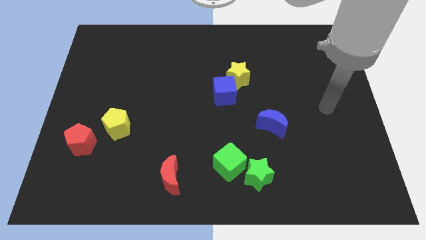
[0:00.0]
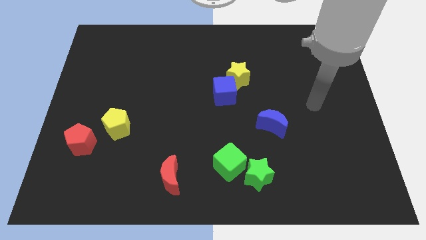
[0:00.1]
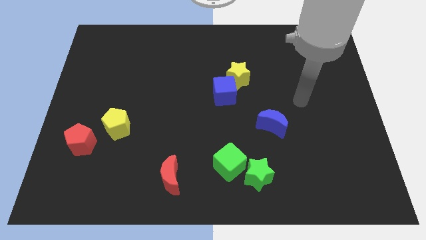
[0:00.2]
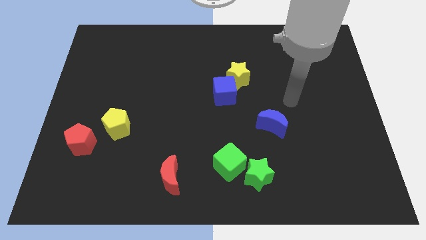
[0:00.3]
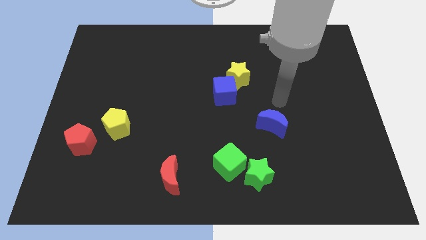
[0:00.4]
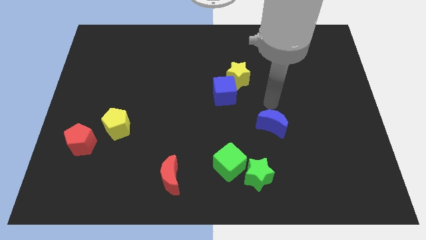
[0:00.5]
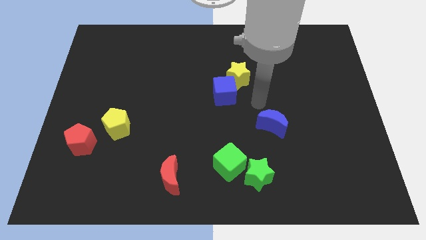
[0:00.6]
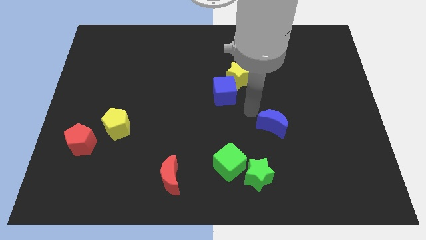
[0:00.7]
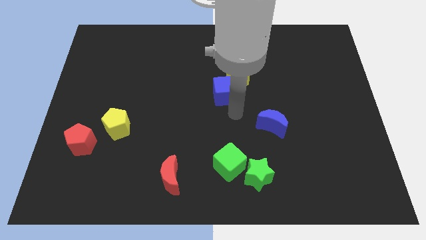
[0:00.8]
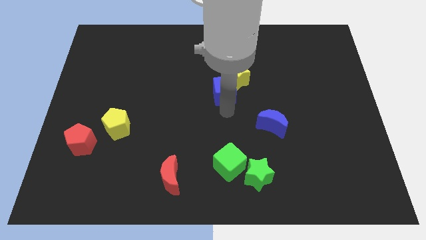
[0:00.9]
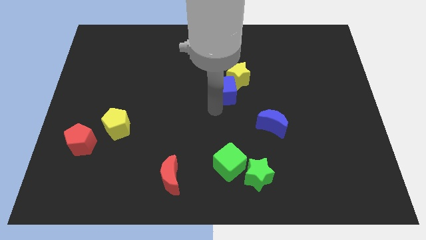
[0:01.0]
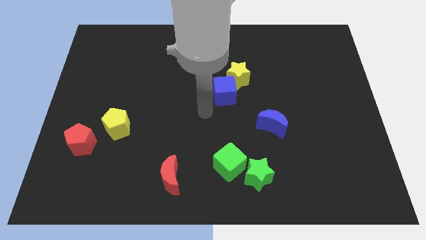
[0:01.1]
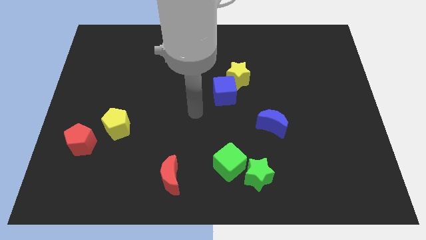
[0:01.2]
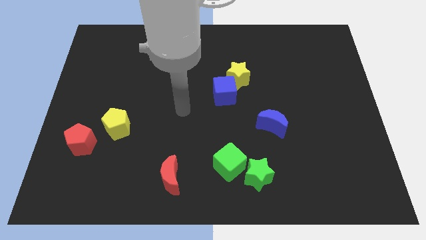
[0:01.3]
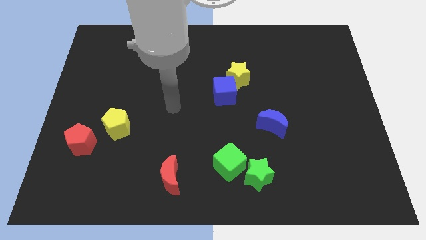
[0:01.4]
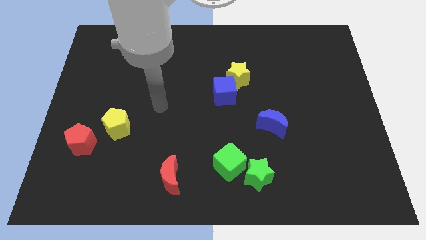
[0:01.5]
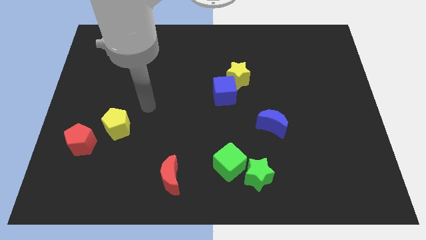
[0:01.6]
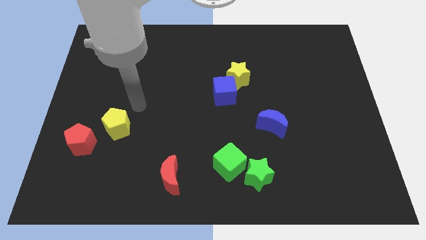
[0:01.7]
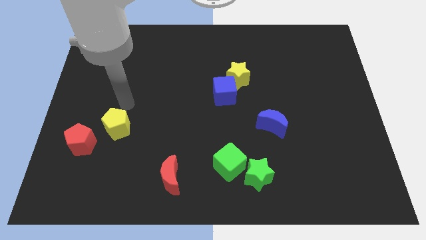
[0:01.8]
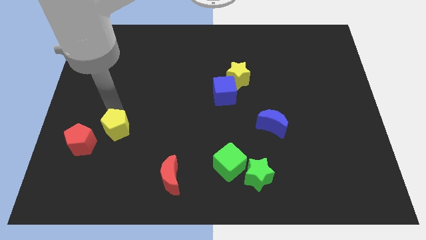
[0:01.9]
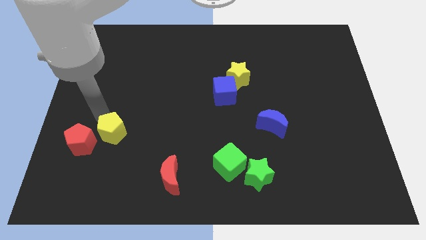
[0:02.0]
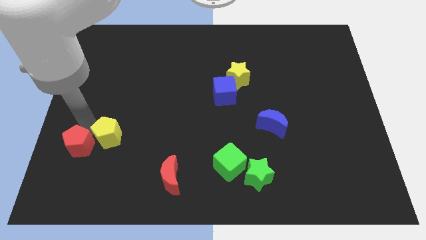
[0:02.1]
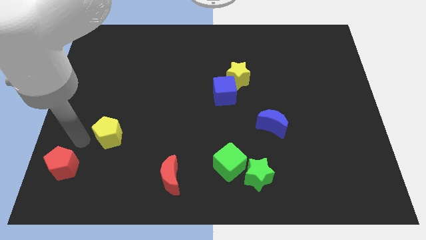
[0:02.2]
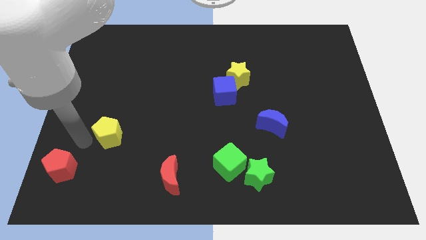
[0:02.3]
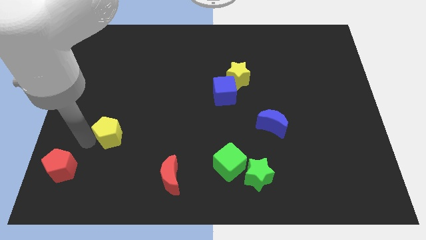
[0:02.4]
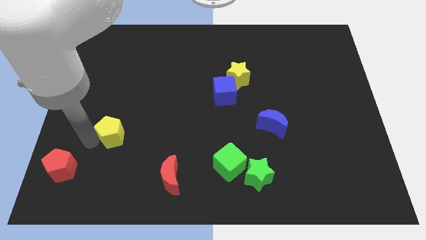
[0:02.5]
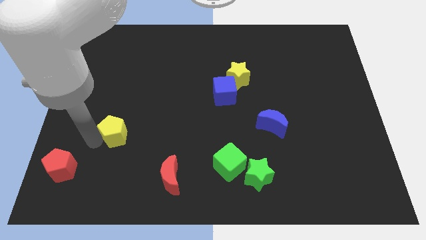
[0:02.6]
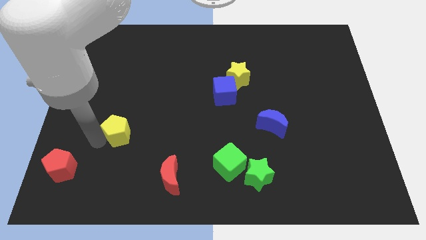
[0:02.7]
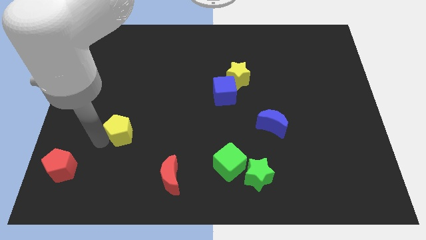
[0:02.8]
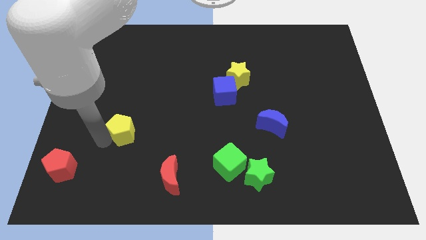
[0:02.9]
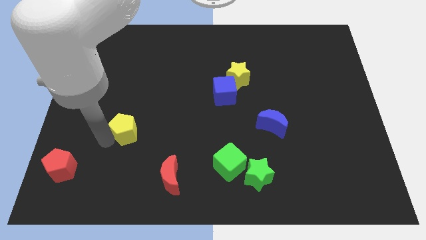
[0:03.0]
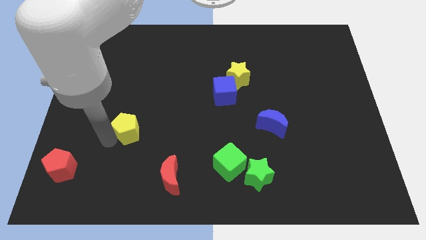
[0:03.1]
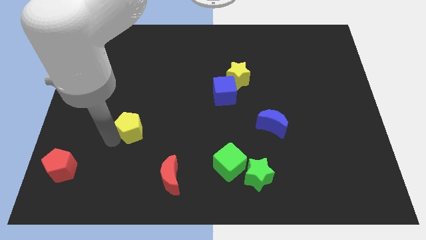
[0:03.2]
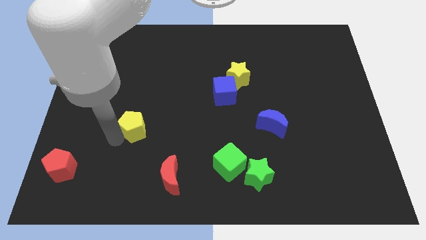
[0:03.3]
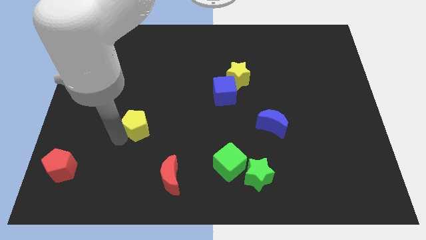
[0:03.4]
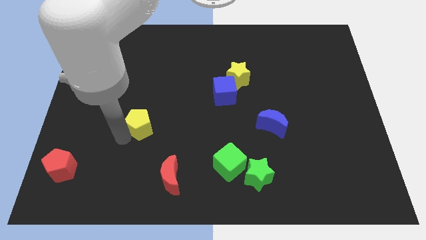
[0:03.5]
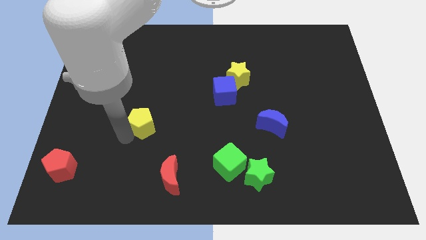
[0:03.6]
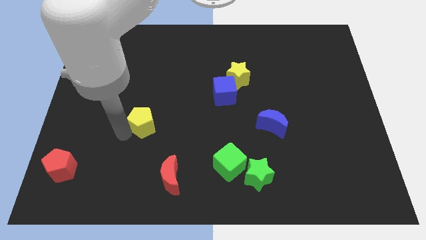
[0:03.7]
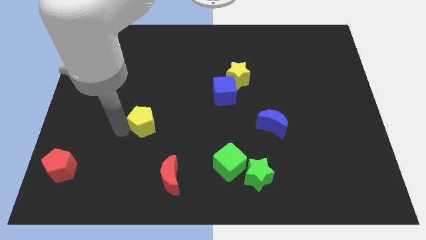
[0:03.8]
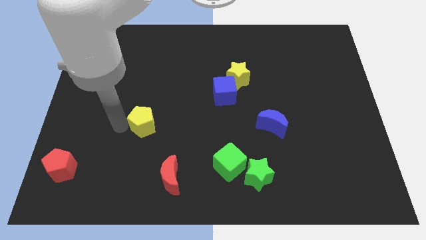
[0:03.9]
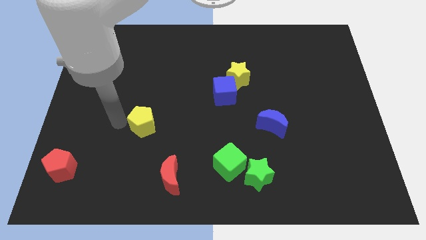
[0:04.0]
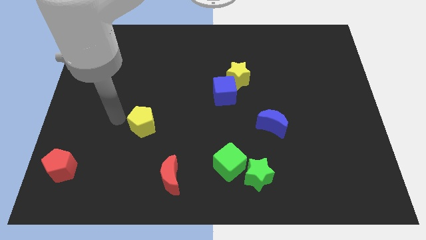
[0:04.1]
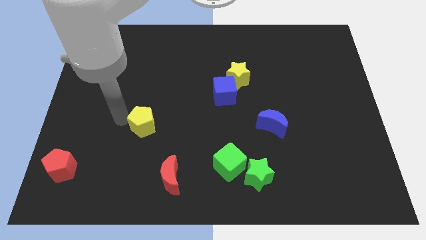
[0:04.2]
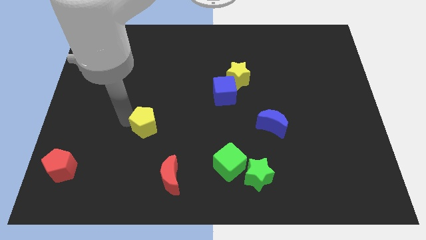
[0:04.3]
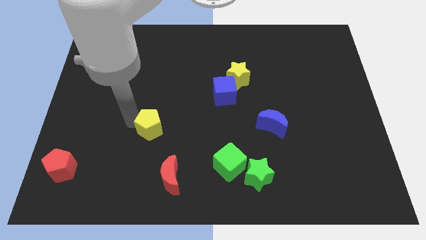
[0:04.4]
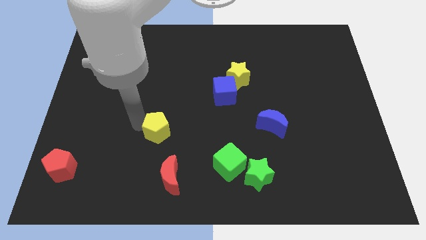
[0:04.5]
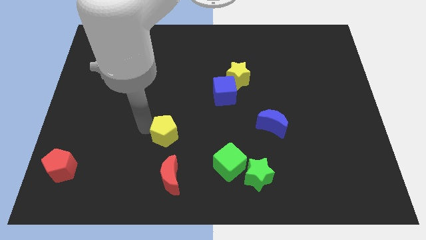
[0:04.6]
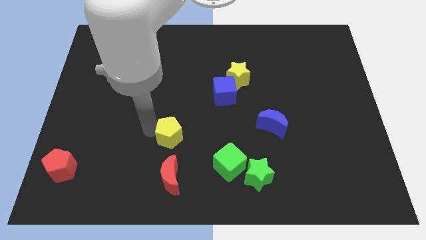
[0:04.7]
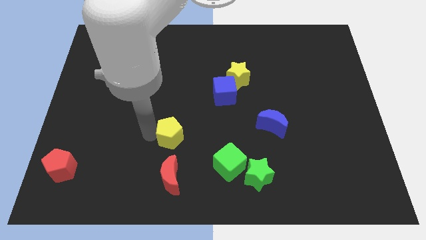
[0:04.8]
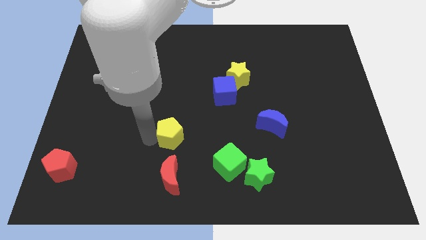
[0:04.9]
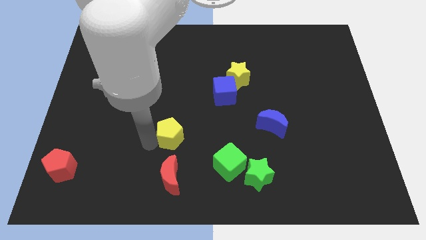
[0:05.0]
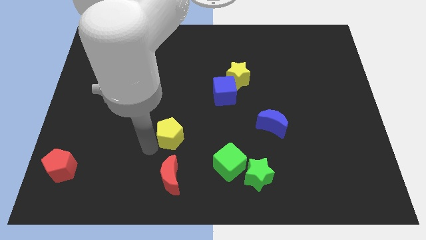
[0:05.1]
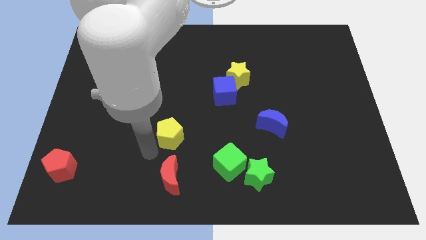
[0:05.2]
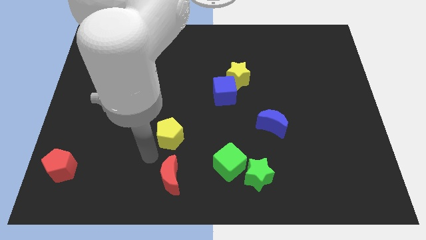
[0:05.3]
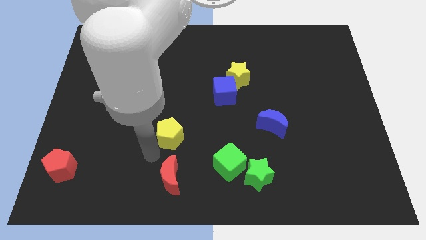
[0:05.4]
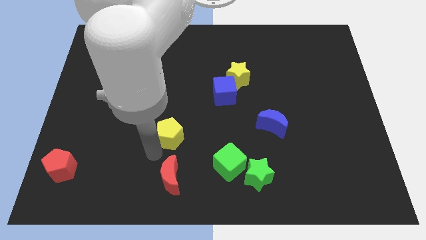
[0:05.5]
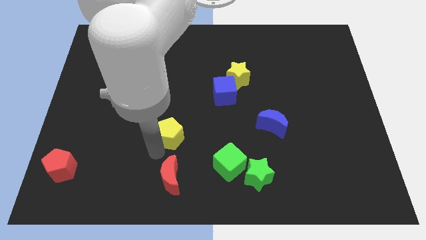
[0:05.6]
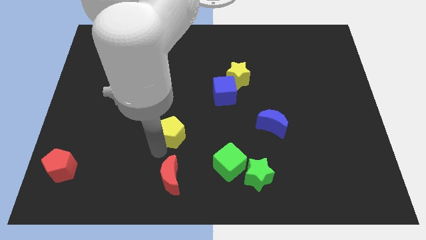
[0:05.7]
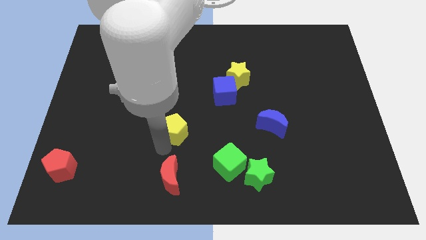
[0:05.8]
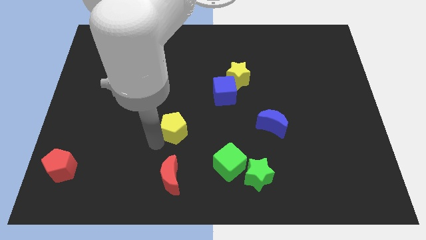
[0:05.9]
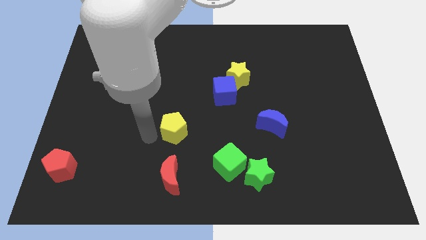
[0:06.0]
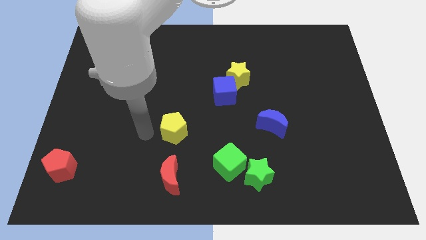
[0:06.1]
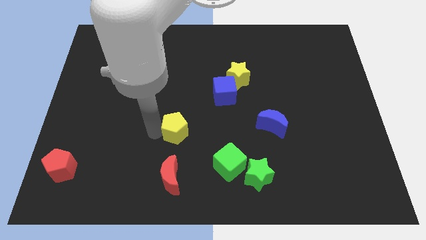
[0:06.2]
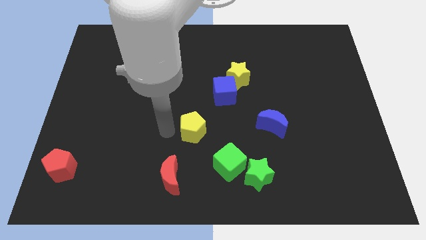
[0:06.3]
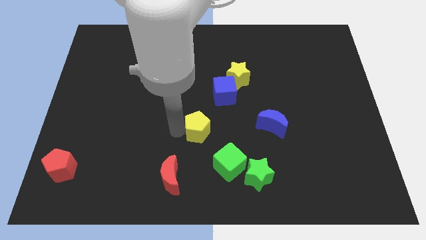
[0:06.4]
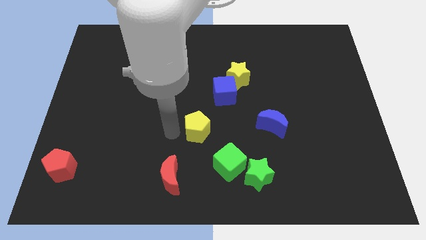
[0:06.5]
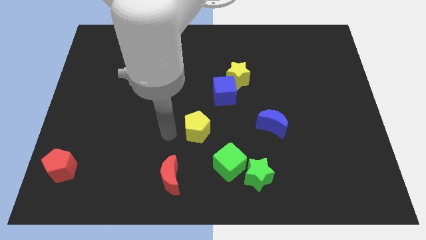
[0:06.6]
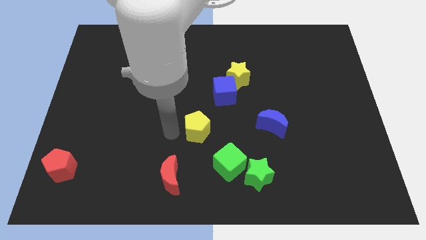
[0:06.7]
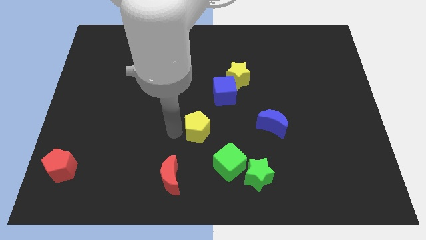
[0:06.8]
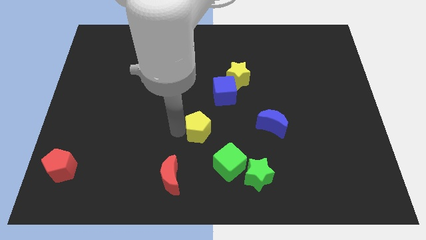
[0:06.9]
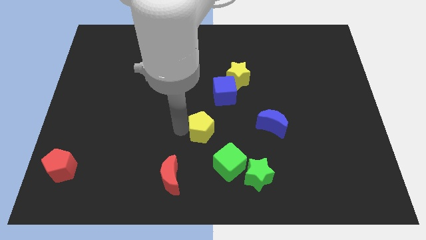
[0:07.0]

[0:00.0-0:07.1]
put the yellow pentagon to the left side of the blue moon

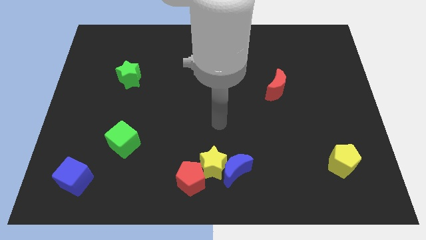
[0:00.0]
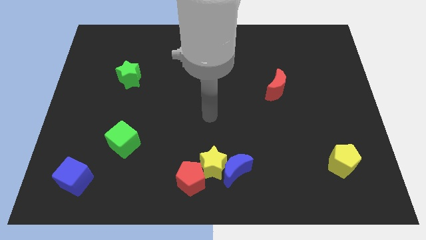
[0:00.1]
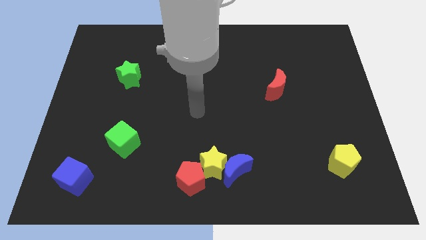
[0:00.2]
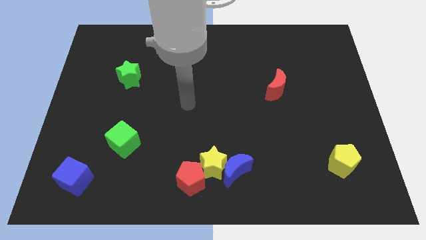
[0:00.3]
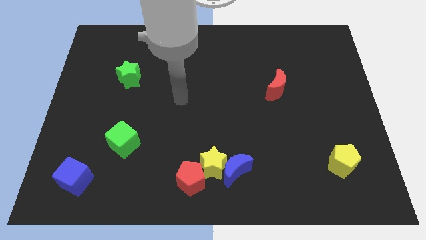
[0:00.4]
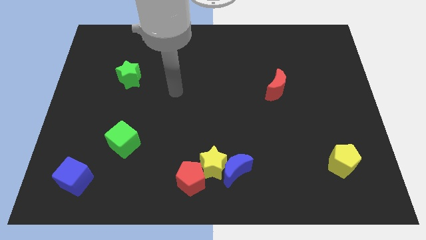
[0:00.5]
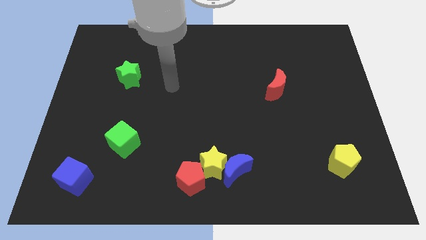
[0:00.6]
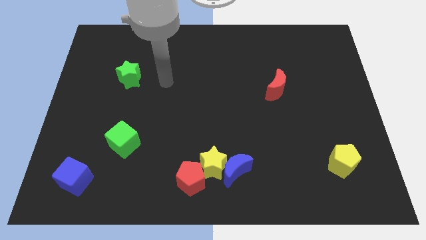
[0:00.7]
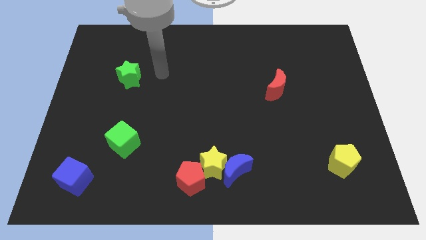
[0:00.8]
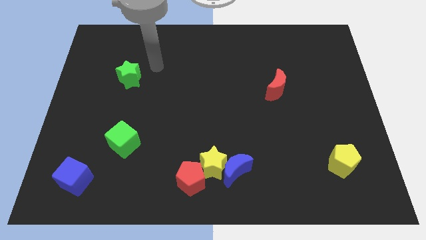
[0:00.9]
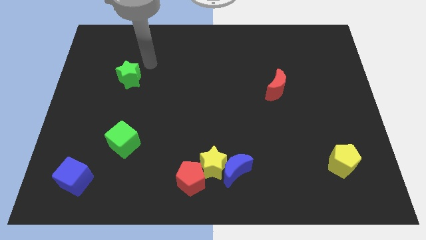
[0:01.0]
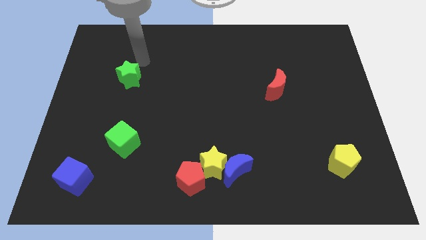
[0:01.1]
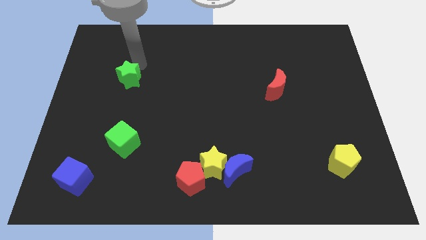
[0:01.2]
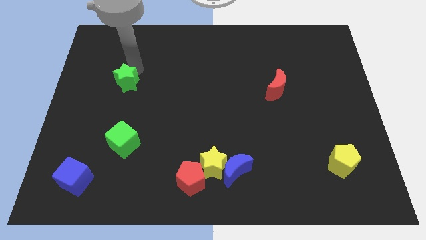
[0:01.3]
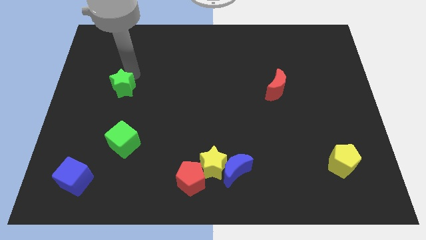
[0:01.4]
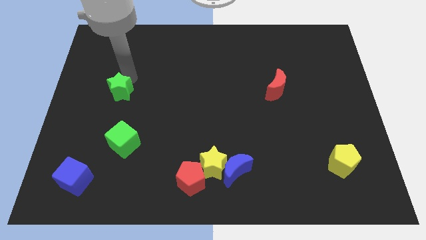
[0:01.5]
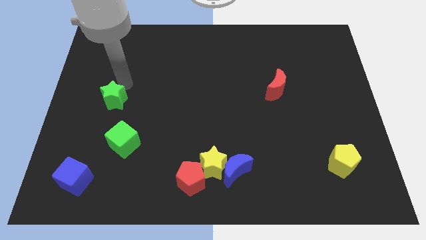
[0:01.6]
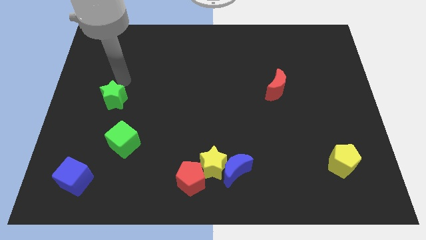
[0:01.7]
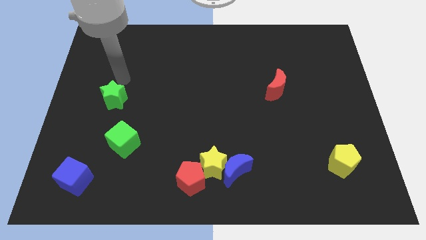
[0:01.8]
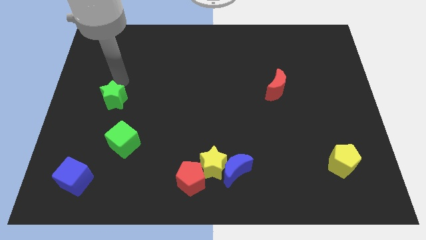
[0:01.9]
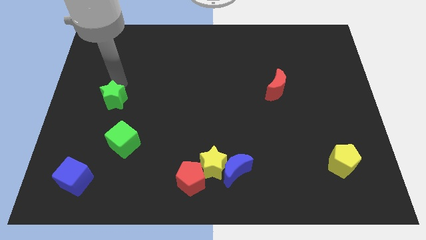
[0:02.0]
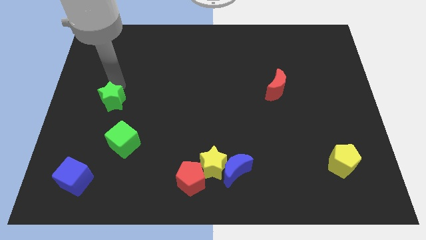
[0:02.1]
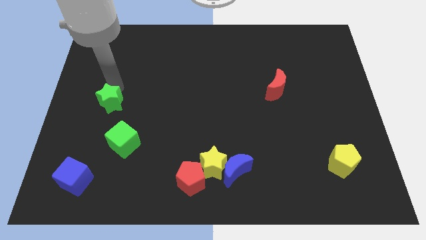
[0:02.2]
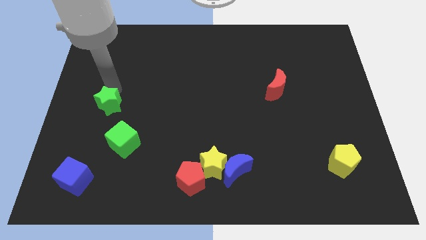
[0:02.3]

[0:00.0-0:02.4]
move the green star diagonally up and to the left of the green cube
